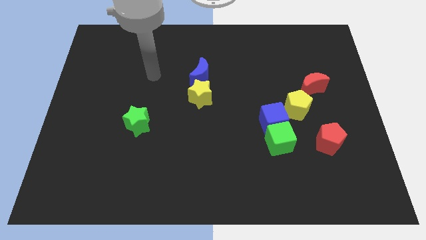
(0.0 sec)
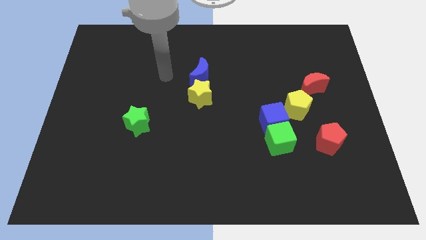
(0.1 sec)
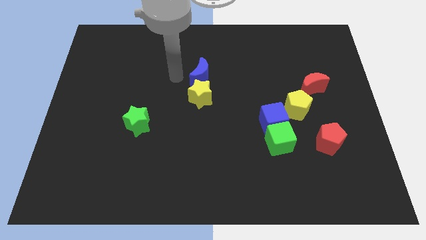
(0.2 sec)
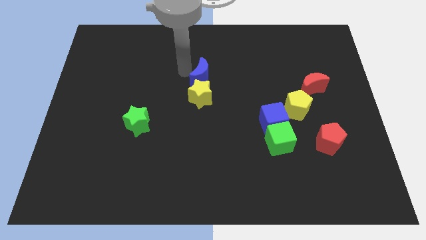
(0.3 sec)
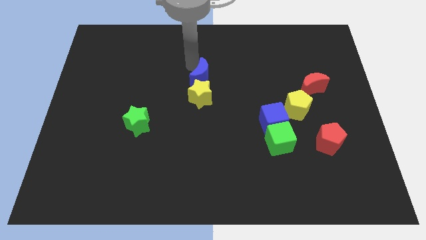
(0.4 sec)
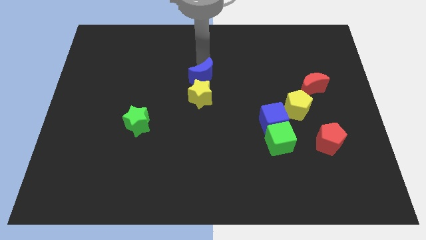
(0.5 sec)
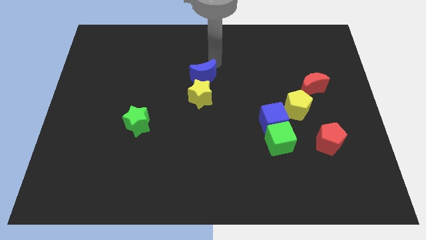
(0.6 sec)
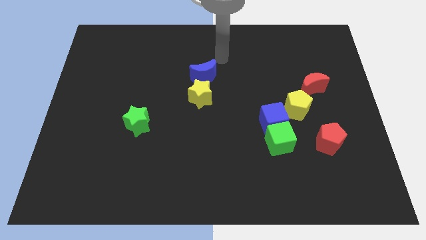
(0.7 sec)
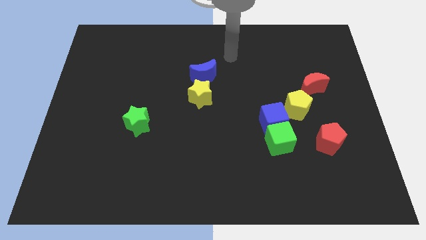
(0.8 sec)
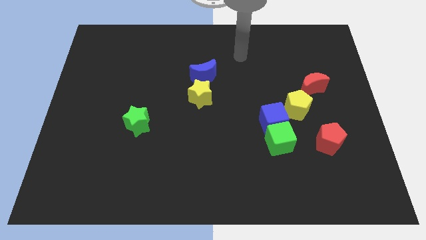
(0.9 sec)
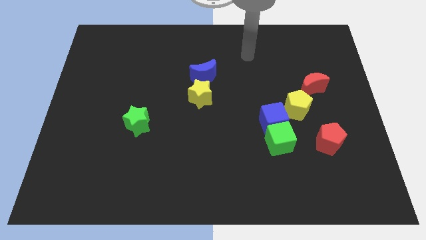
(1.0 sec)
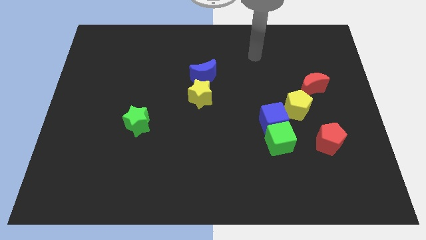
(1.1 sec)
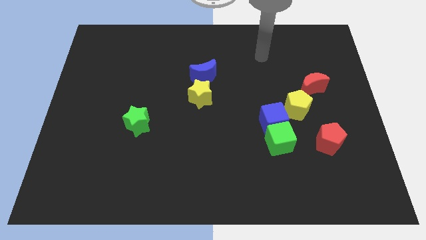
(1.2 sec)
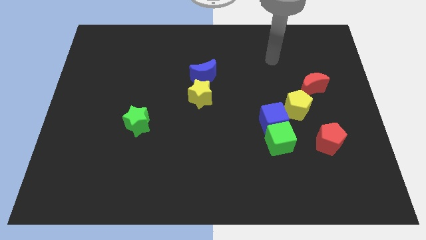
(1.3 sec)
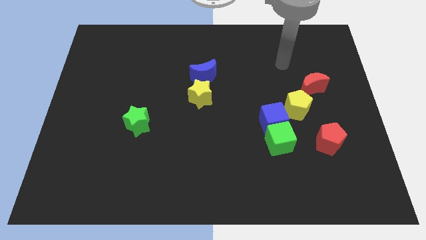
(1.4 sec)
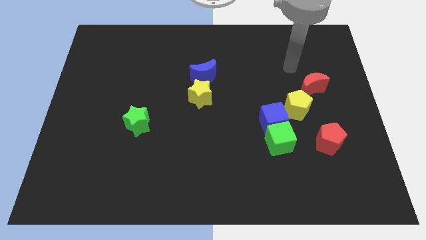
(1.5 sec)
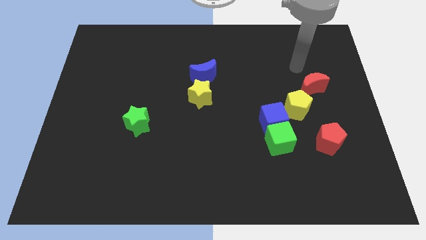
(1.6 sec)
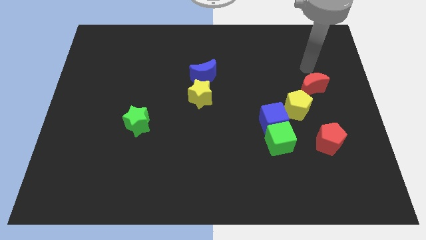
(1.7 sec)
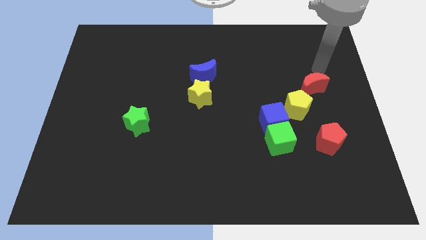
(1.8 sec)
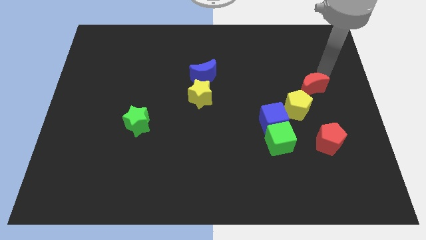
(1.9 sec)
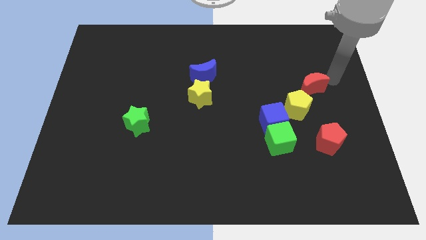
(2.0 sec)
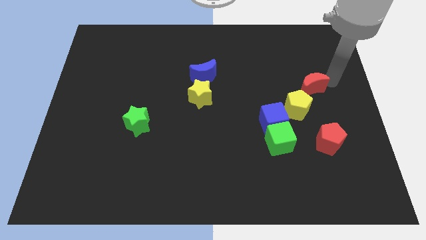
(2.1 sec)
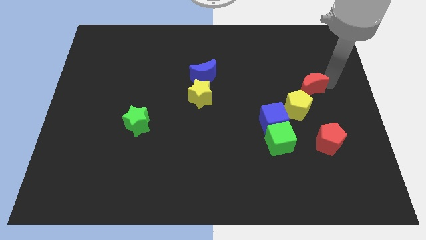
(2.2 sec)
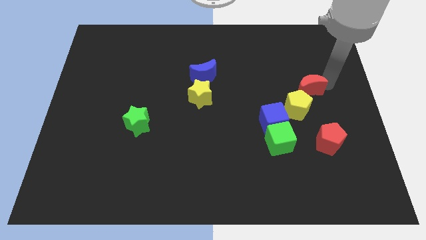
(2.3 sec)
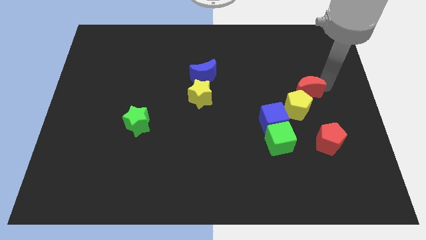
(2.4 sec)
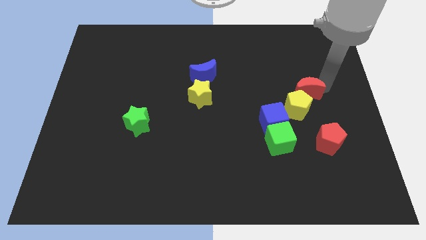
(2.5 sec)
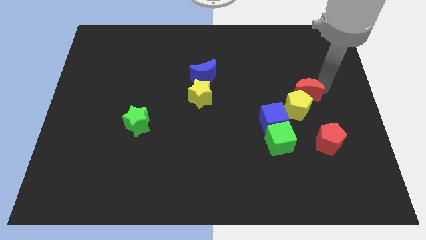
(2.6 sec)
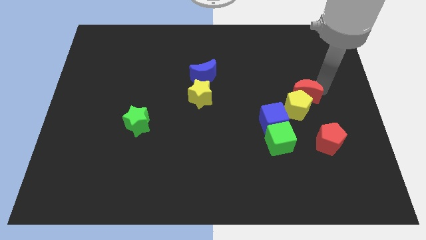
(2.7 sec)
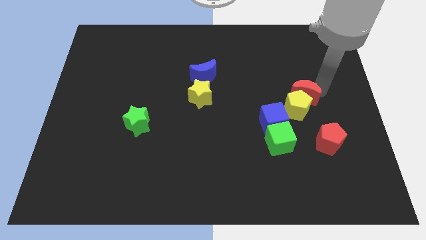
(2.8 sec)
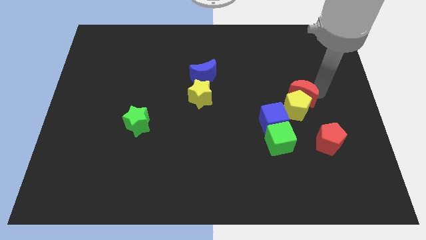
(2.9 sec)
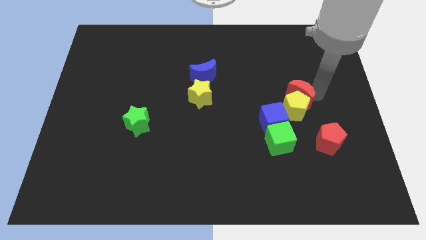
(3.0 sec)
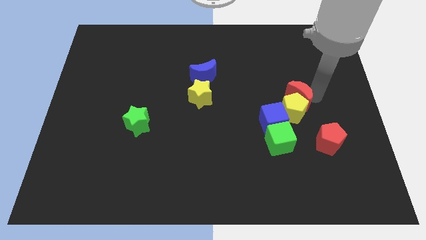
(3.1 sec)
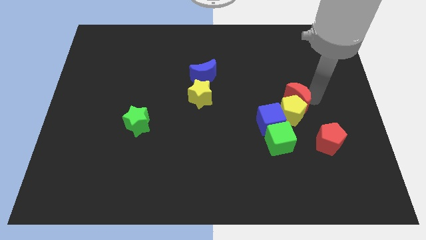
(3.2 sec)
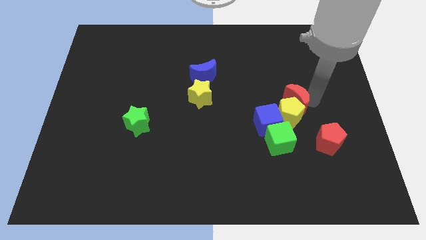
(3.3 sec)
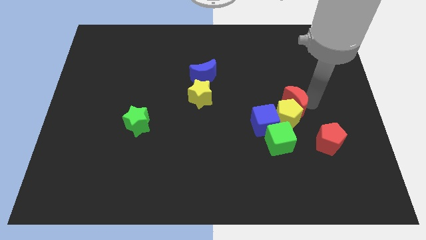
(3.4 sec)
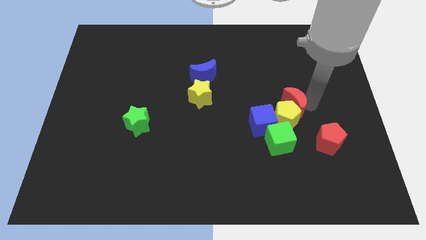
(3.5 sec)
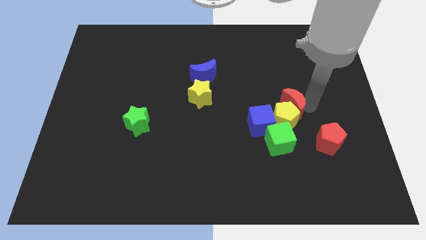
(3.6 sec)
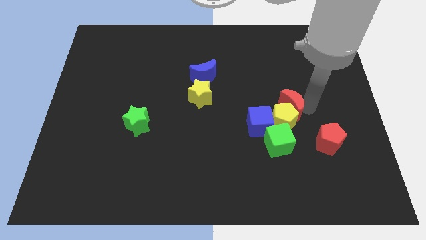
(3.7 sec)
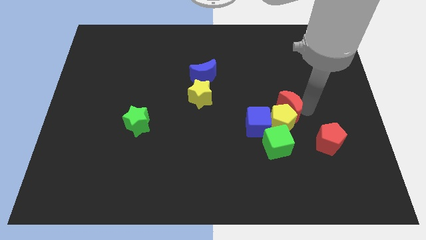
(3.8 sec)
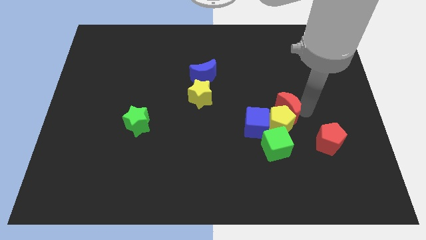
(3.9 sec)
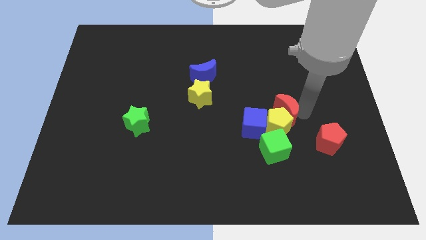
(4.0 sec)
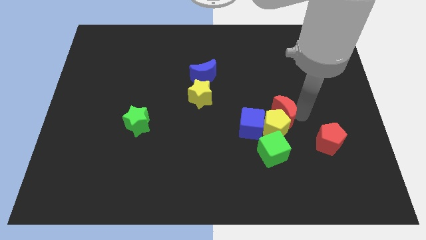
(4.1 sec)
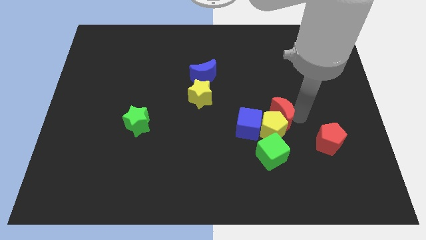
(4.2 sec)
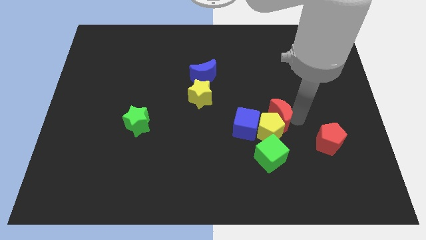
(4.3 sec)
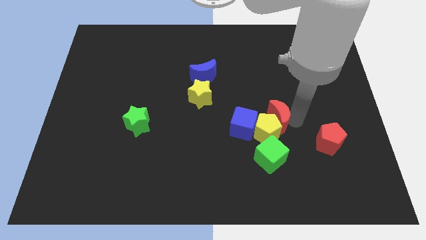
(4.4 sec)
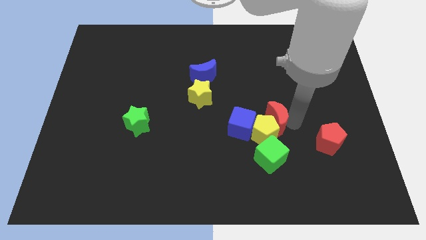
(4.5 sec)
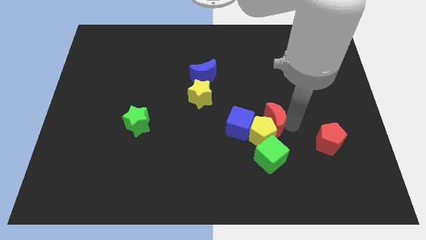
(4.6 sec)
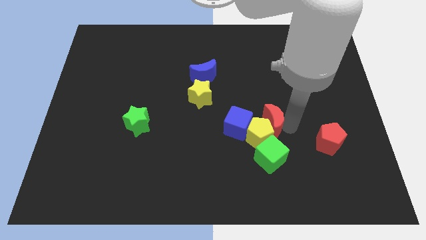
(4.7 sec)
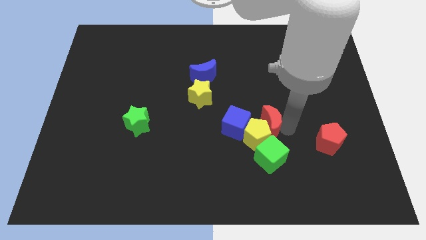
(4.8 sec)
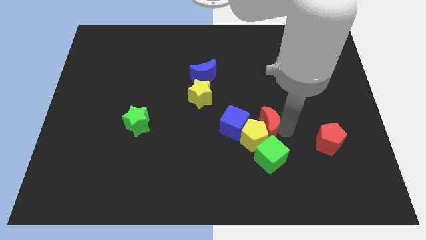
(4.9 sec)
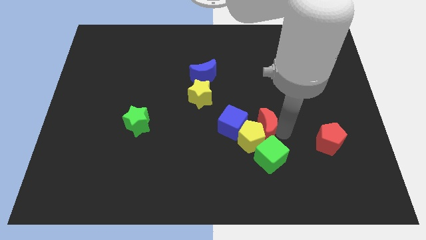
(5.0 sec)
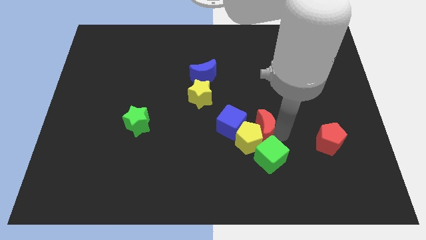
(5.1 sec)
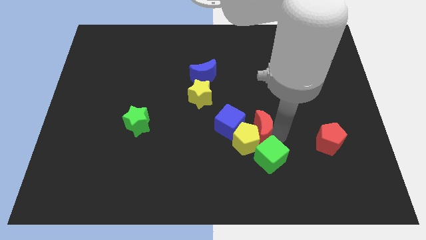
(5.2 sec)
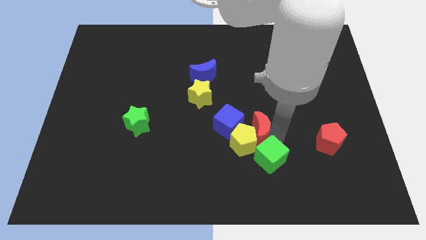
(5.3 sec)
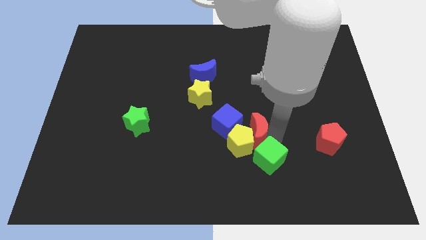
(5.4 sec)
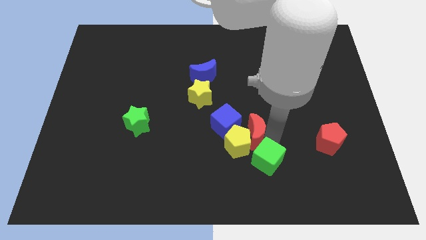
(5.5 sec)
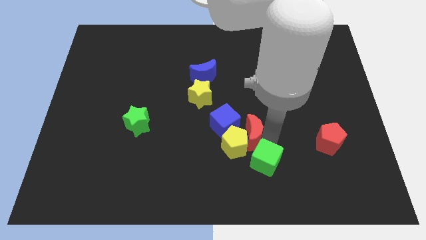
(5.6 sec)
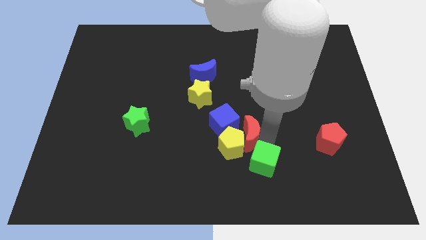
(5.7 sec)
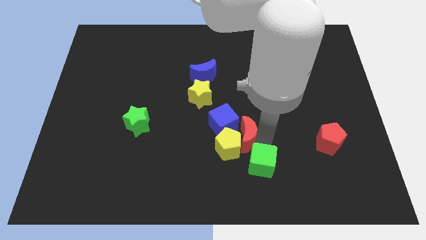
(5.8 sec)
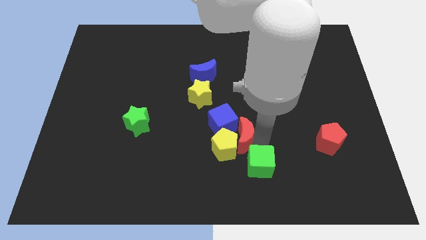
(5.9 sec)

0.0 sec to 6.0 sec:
push the red moon towards the blue cube

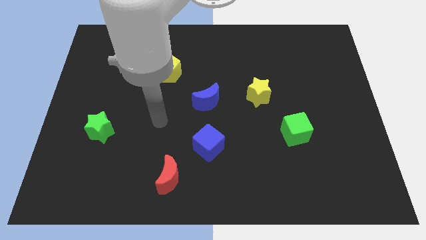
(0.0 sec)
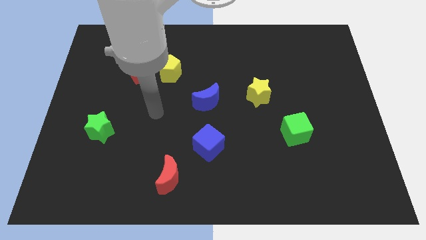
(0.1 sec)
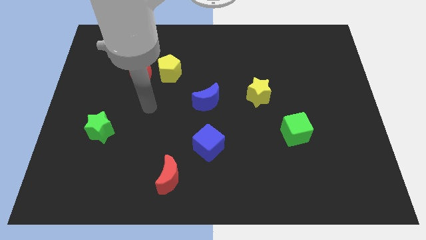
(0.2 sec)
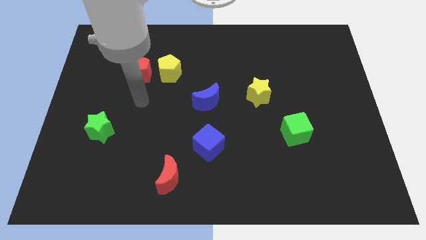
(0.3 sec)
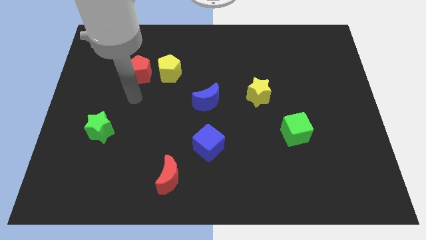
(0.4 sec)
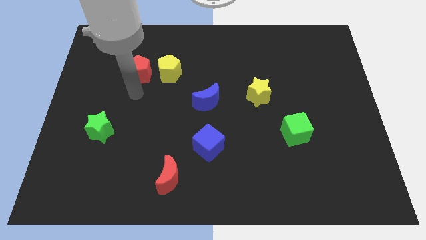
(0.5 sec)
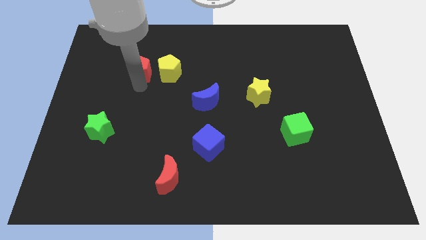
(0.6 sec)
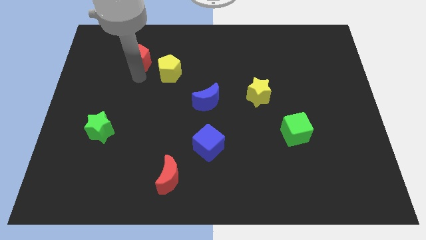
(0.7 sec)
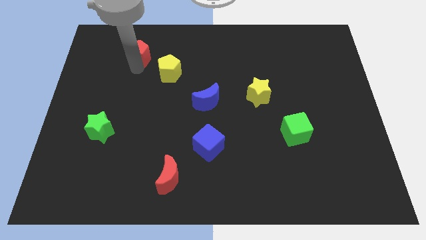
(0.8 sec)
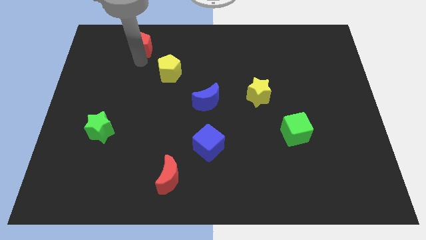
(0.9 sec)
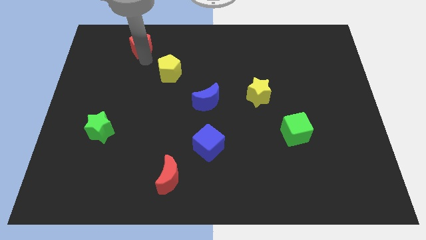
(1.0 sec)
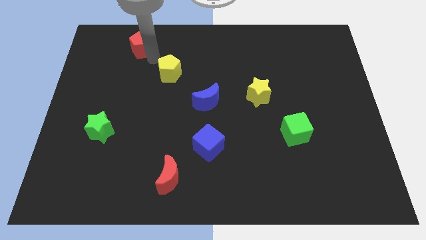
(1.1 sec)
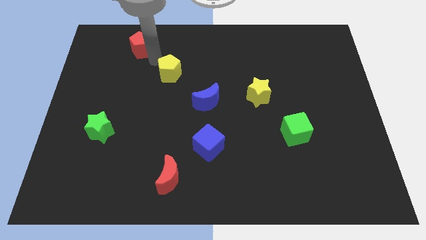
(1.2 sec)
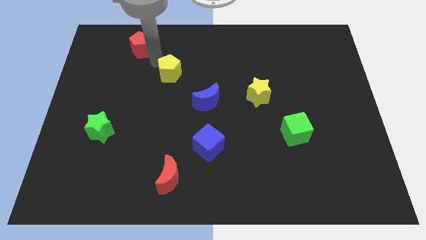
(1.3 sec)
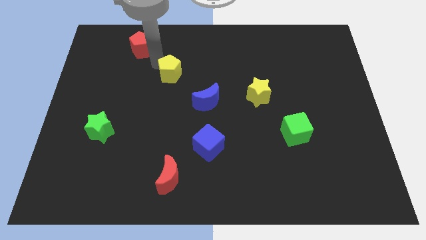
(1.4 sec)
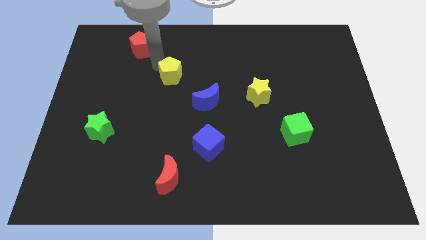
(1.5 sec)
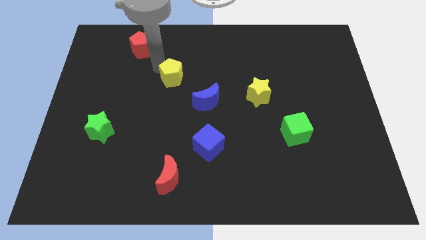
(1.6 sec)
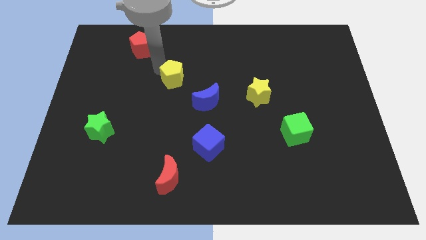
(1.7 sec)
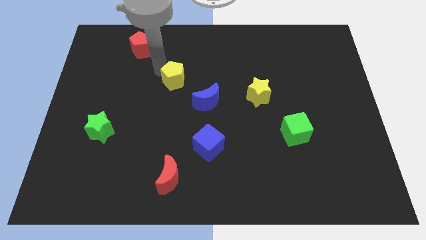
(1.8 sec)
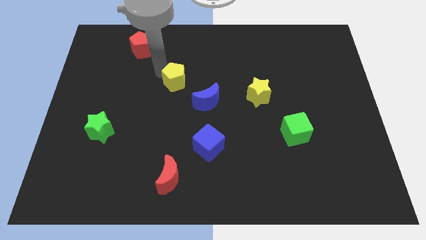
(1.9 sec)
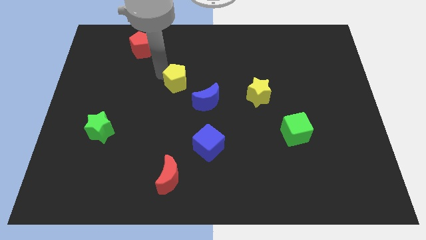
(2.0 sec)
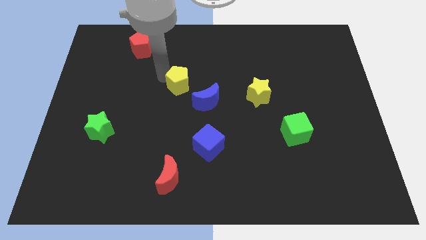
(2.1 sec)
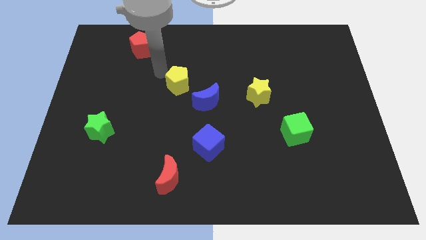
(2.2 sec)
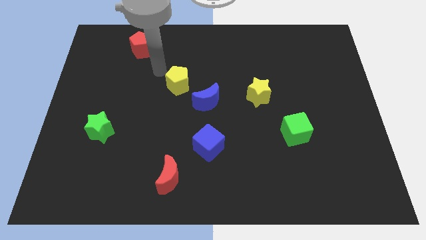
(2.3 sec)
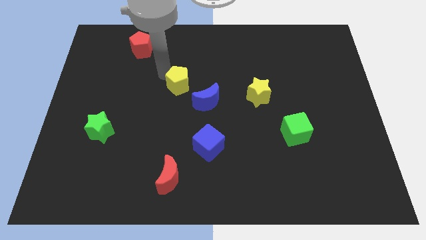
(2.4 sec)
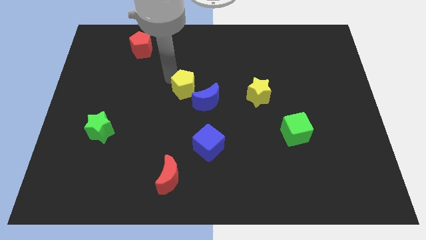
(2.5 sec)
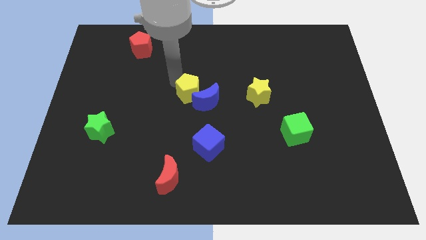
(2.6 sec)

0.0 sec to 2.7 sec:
slide the yellow pentagon towards the blue moon
